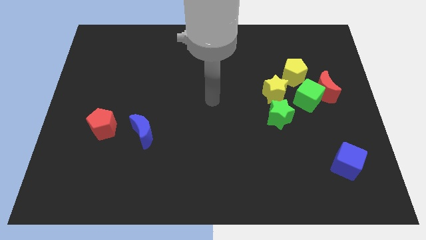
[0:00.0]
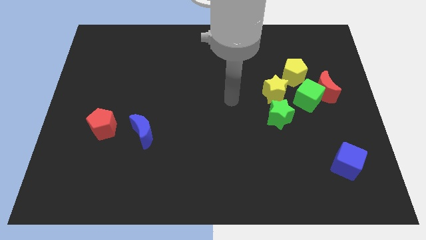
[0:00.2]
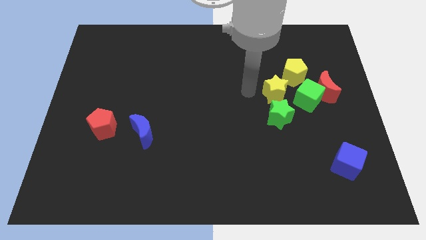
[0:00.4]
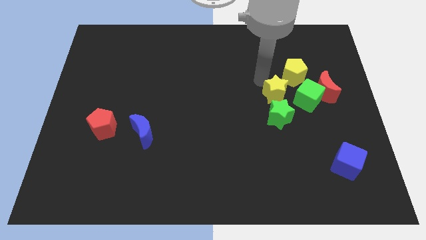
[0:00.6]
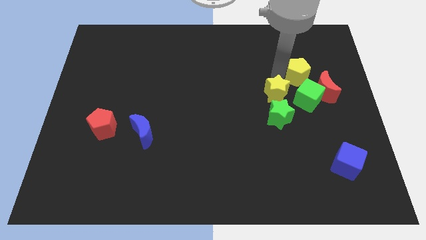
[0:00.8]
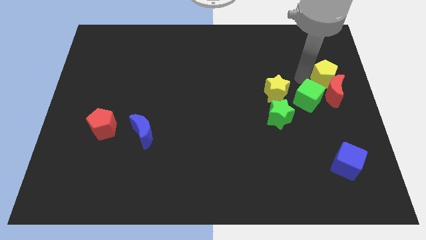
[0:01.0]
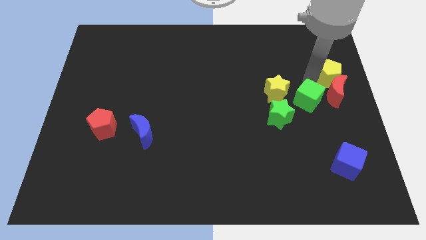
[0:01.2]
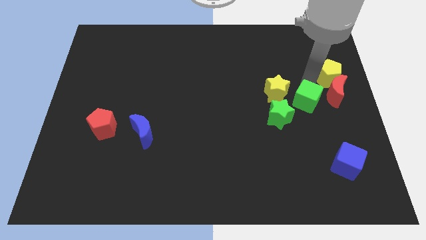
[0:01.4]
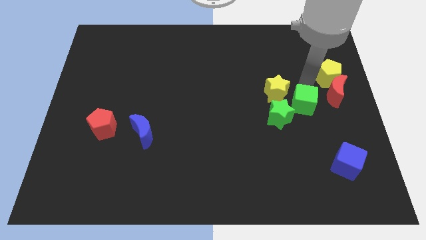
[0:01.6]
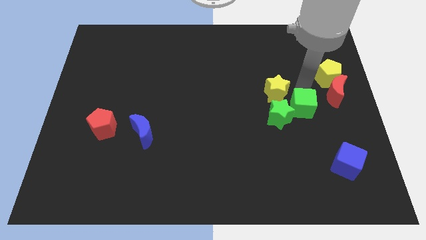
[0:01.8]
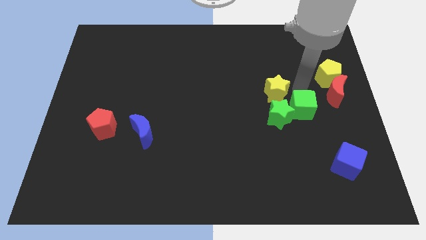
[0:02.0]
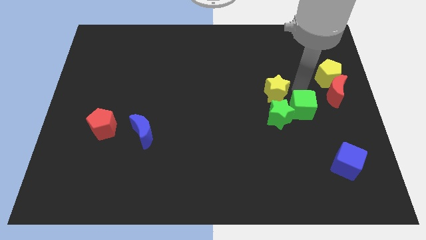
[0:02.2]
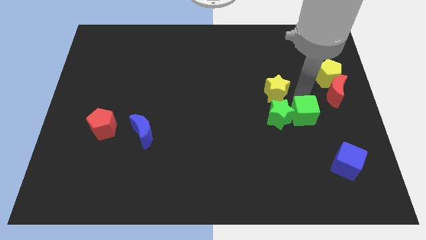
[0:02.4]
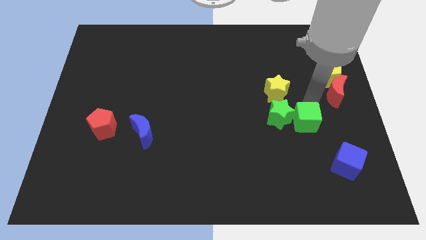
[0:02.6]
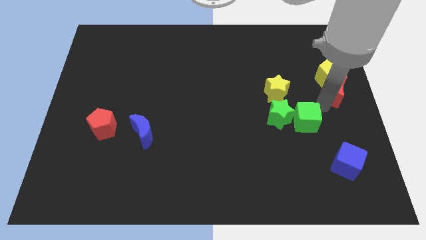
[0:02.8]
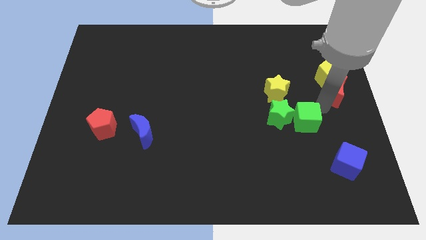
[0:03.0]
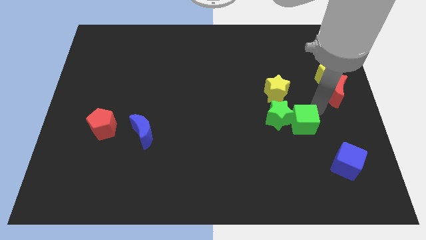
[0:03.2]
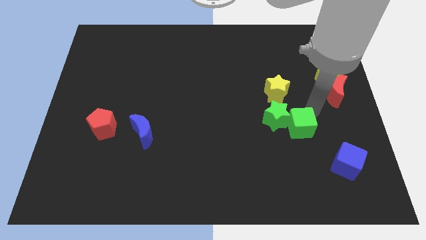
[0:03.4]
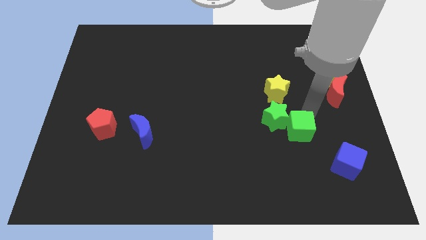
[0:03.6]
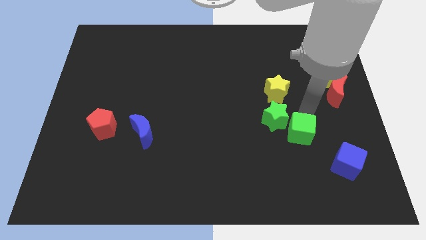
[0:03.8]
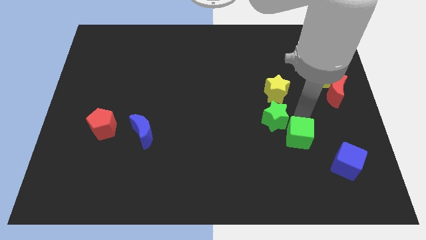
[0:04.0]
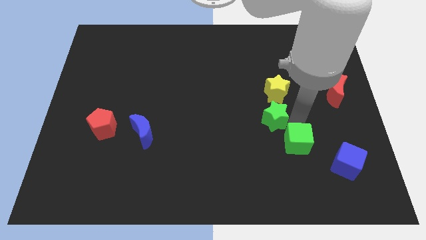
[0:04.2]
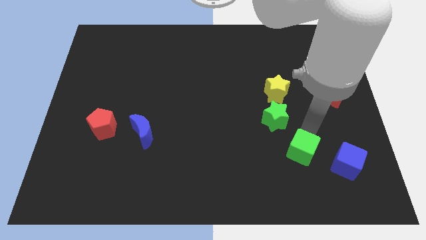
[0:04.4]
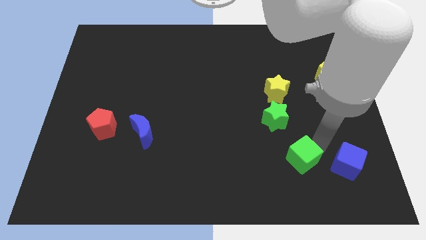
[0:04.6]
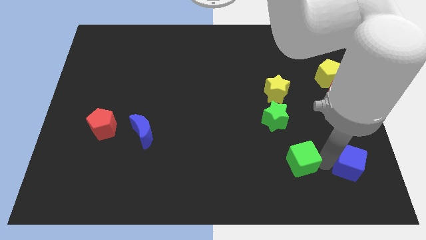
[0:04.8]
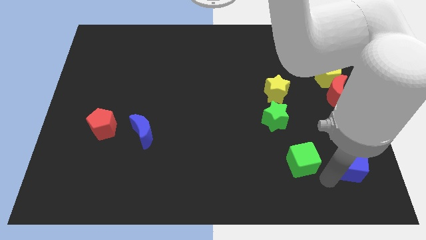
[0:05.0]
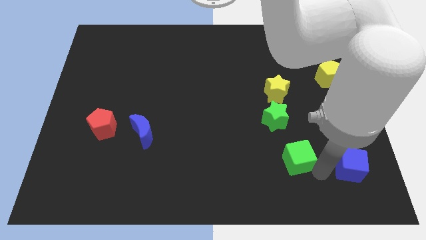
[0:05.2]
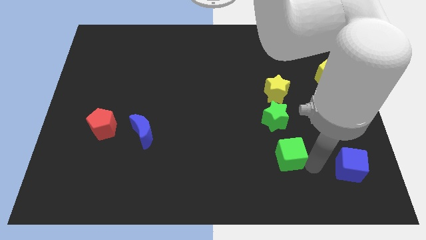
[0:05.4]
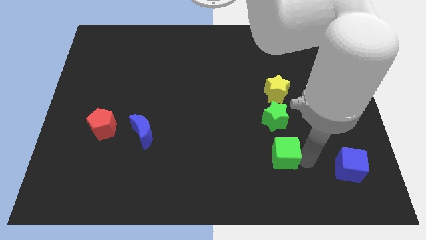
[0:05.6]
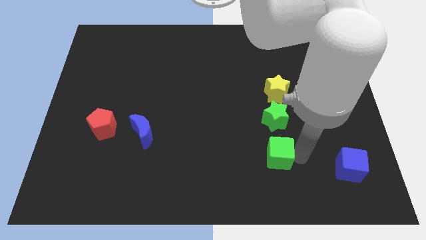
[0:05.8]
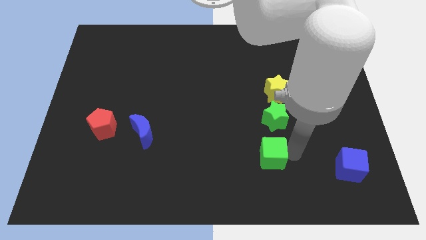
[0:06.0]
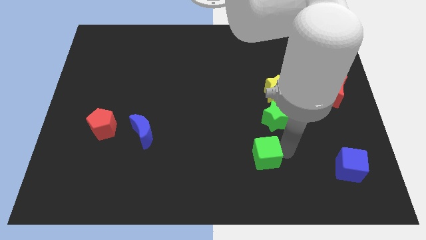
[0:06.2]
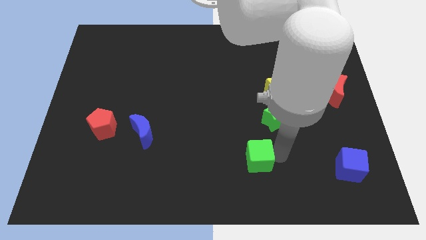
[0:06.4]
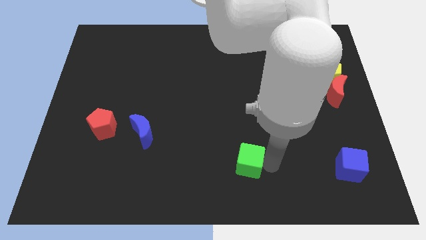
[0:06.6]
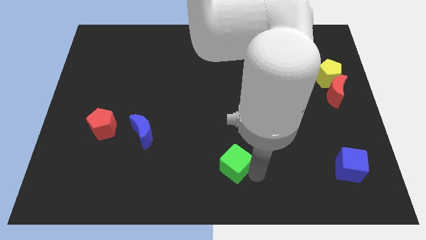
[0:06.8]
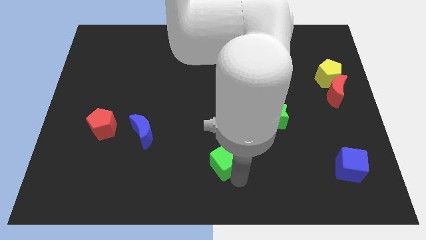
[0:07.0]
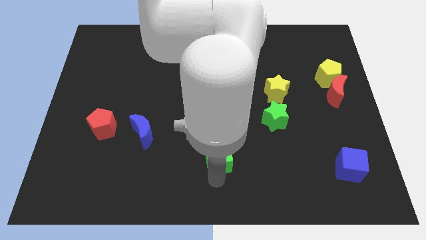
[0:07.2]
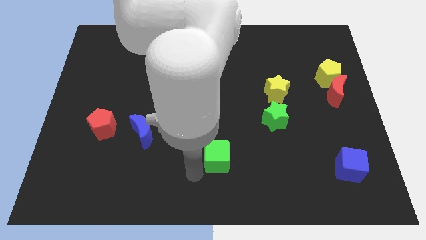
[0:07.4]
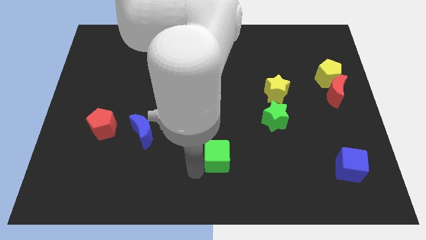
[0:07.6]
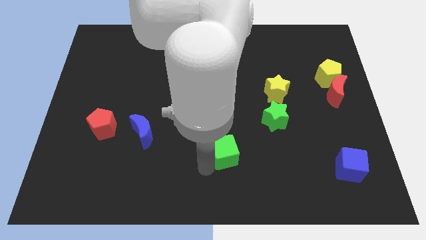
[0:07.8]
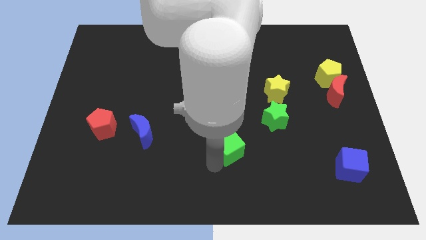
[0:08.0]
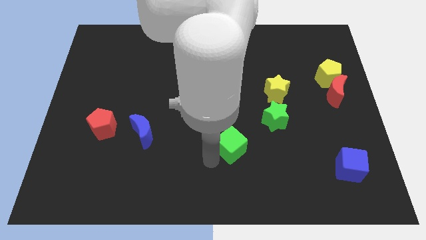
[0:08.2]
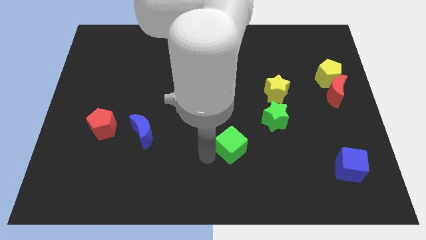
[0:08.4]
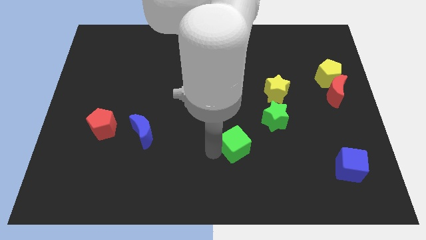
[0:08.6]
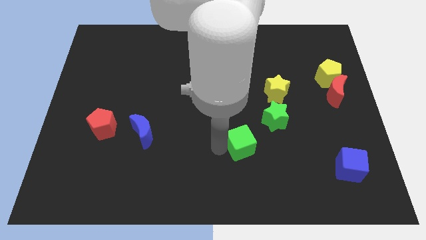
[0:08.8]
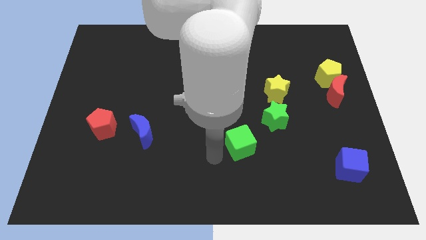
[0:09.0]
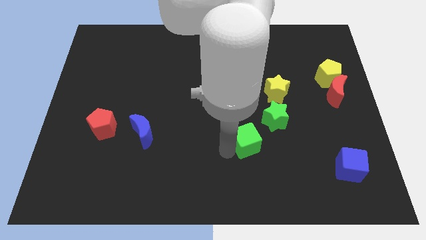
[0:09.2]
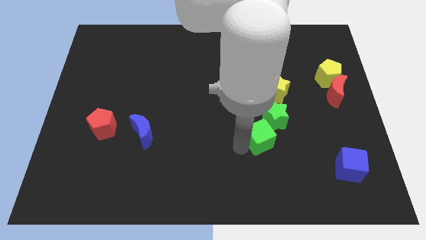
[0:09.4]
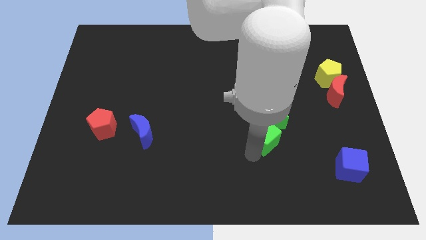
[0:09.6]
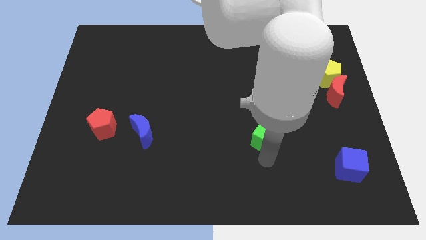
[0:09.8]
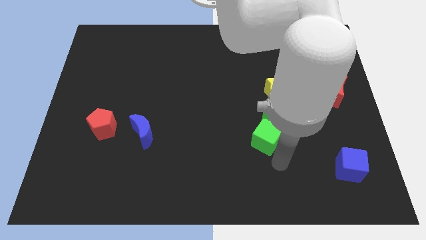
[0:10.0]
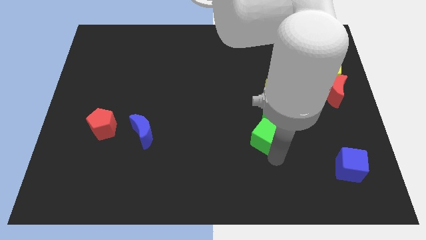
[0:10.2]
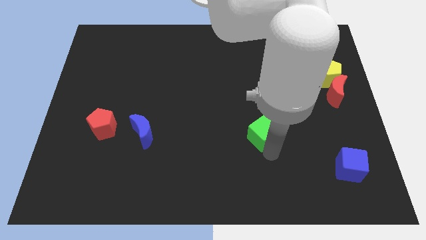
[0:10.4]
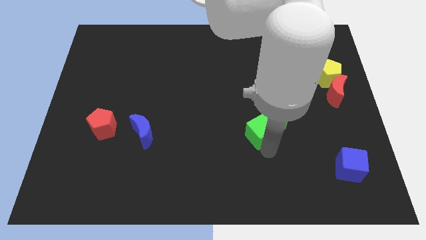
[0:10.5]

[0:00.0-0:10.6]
slightly move the green cube left

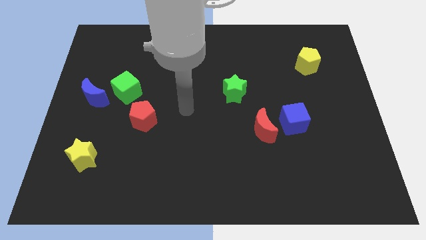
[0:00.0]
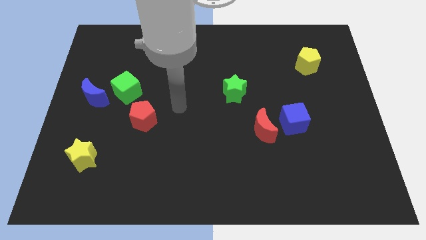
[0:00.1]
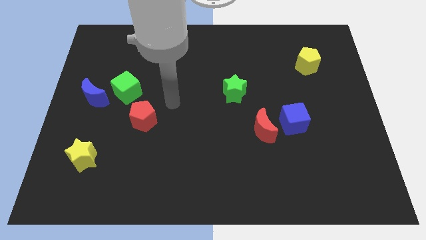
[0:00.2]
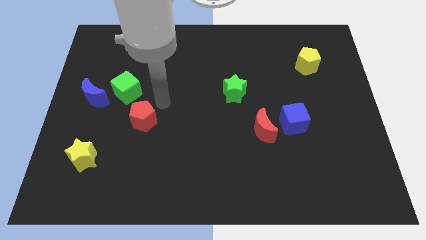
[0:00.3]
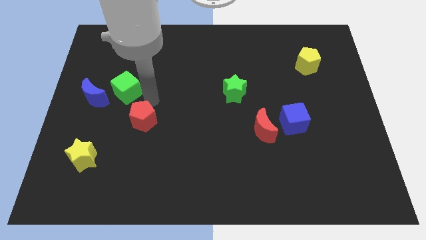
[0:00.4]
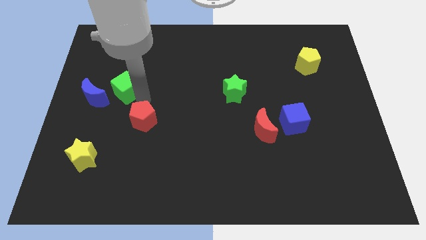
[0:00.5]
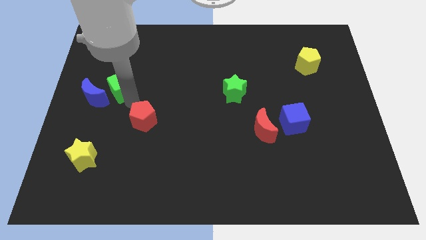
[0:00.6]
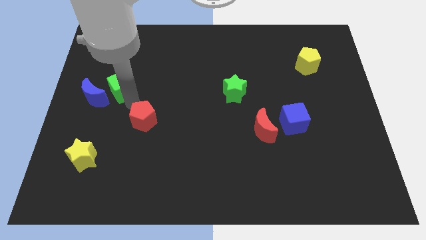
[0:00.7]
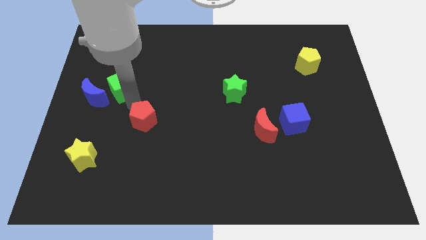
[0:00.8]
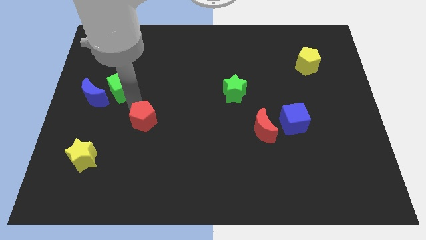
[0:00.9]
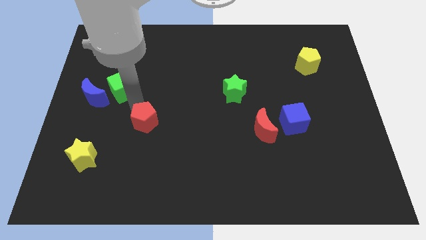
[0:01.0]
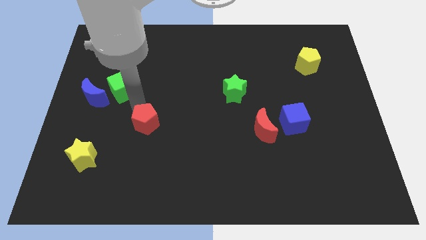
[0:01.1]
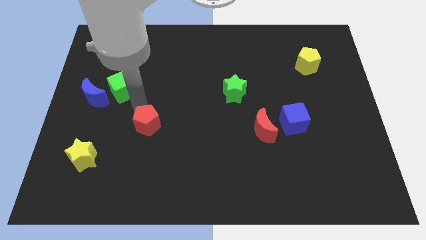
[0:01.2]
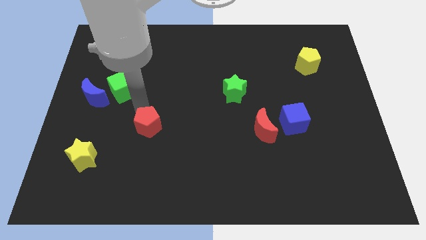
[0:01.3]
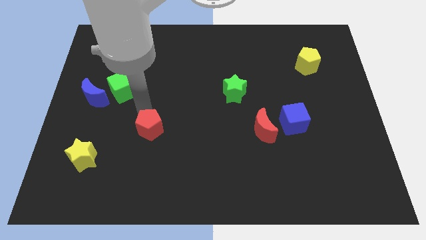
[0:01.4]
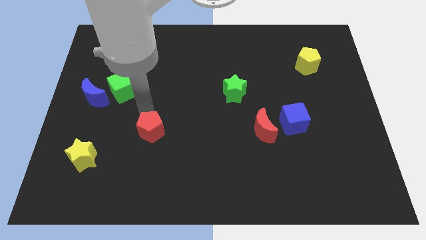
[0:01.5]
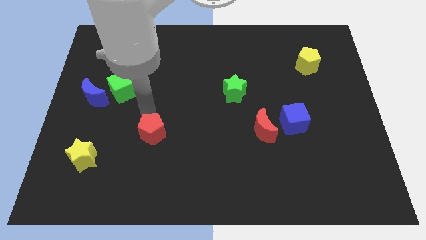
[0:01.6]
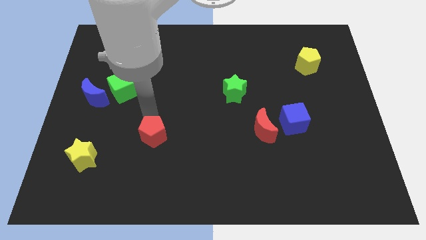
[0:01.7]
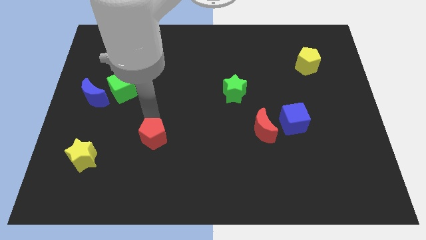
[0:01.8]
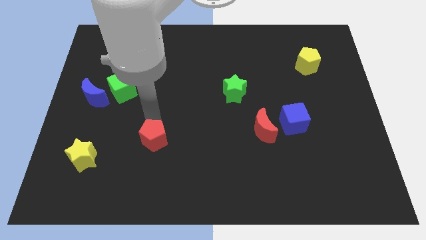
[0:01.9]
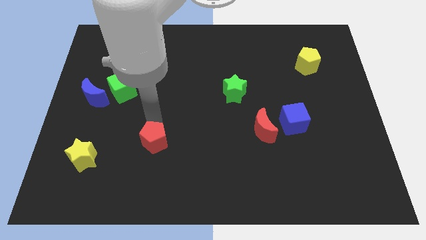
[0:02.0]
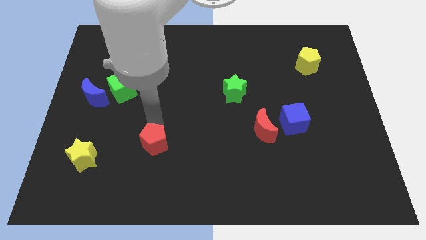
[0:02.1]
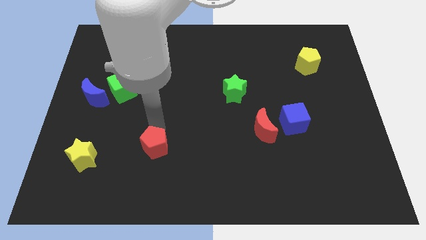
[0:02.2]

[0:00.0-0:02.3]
slide the red pentagon down and to the right a little bit

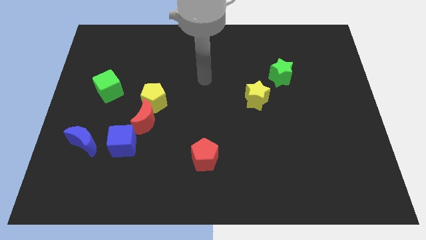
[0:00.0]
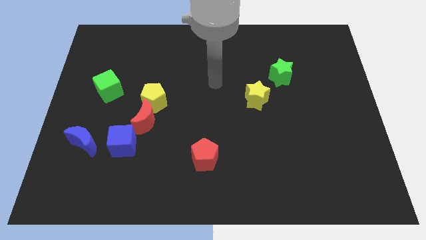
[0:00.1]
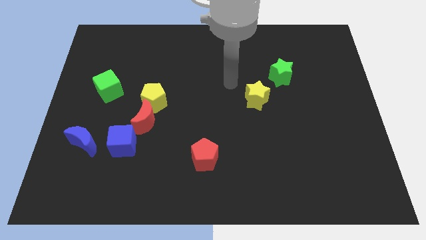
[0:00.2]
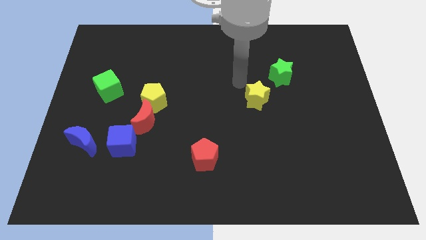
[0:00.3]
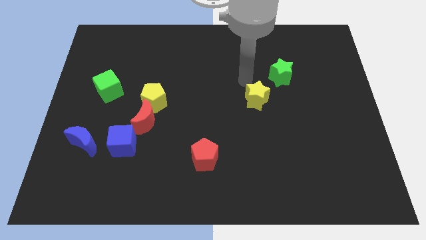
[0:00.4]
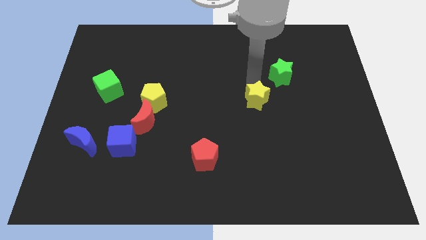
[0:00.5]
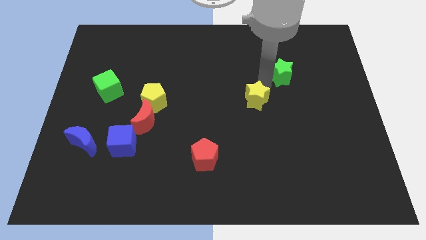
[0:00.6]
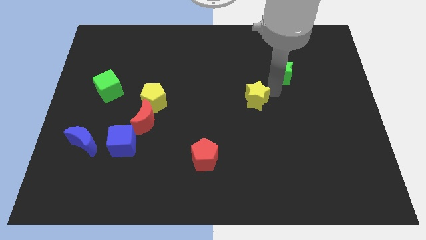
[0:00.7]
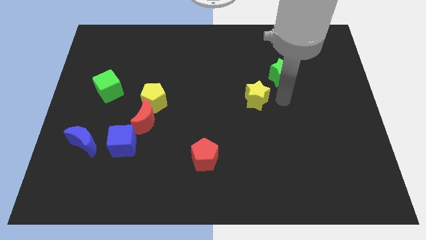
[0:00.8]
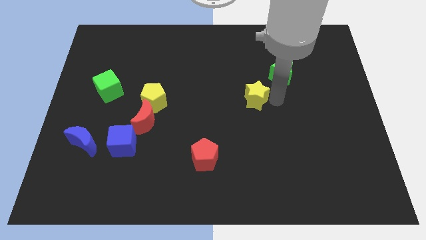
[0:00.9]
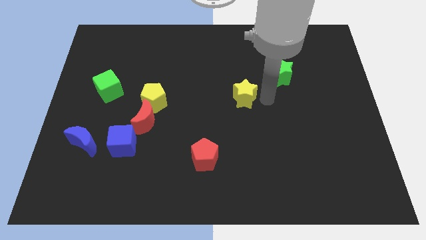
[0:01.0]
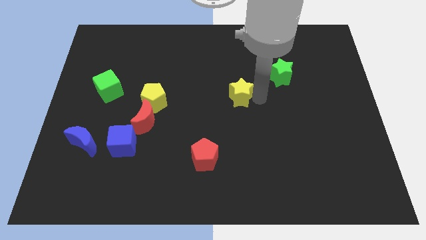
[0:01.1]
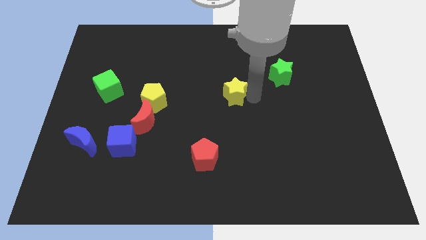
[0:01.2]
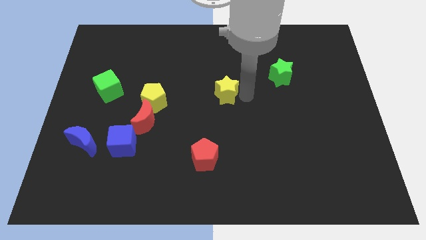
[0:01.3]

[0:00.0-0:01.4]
move the yellow star a bit left
